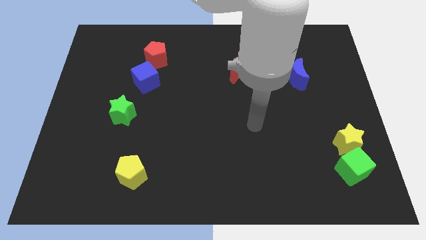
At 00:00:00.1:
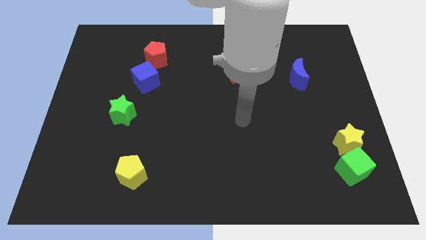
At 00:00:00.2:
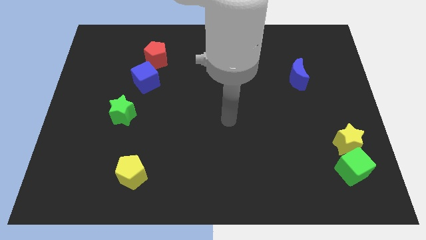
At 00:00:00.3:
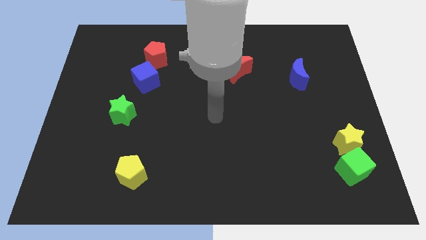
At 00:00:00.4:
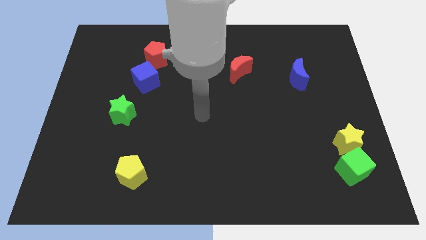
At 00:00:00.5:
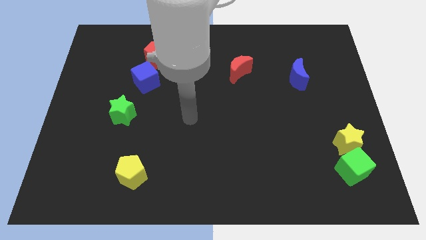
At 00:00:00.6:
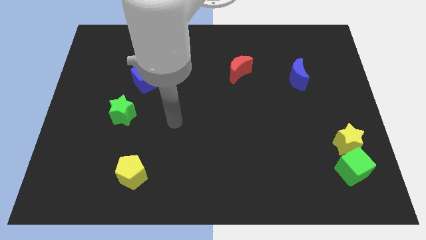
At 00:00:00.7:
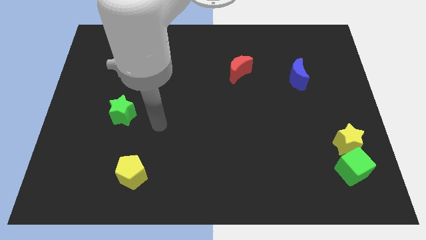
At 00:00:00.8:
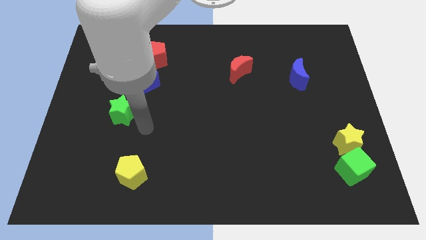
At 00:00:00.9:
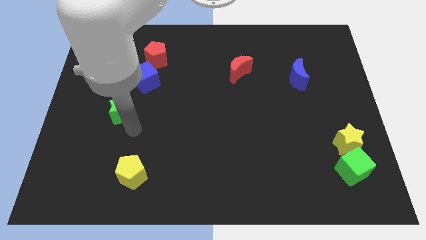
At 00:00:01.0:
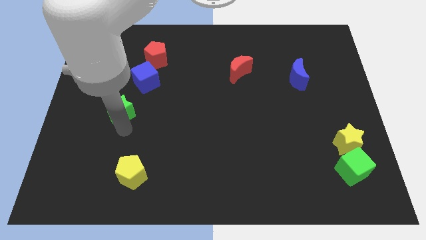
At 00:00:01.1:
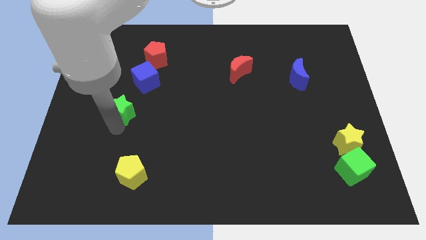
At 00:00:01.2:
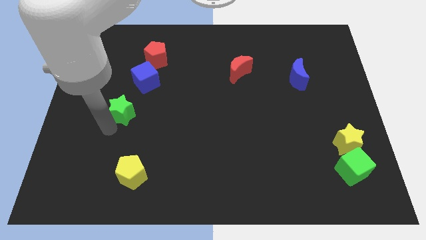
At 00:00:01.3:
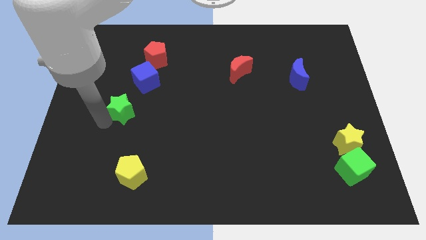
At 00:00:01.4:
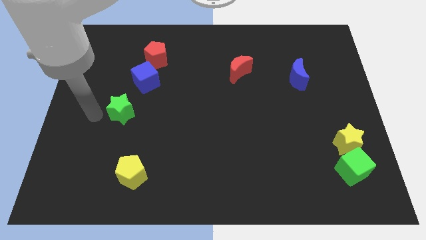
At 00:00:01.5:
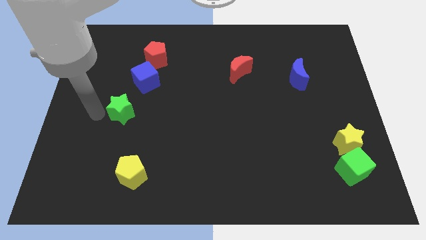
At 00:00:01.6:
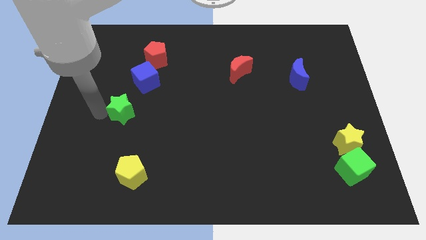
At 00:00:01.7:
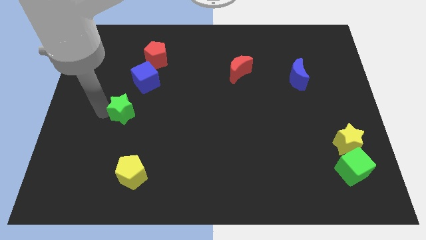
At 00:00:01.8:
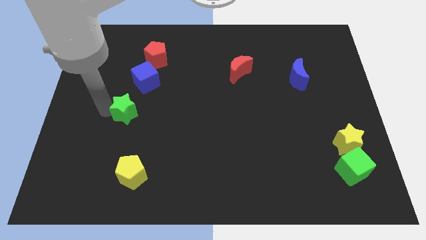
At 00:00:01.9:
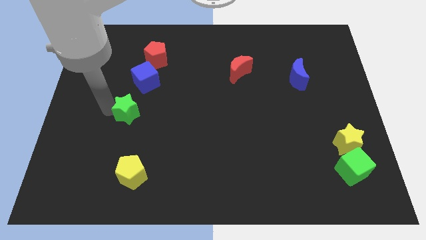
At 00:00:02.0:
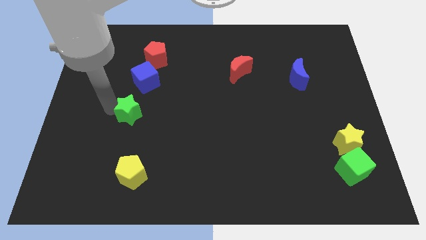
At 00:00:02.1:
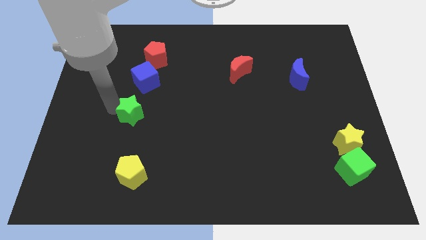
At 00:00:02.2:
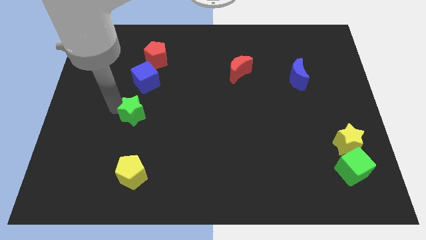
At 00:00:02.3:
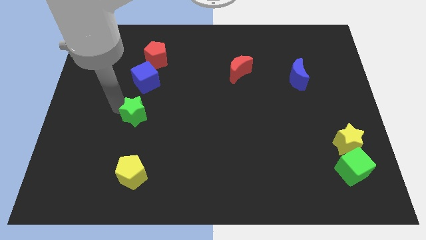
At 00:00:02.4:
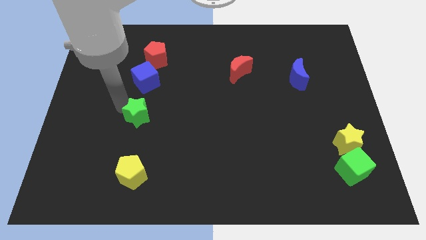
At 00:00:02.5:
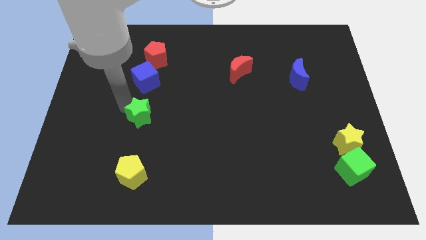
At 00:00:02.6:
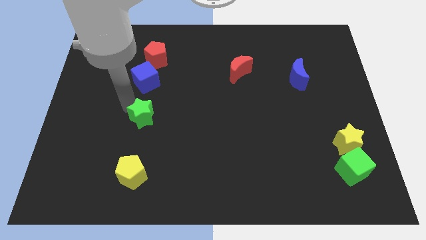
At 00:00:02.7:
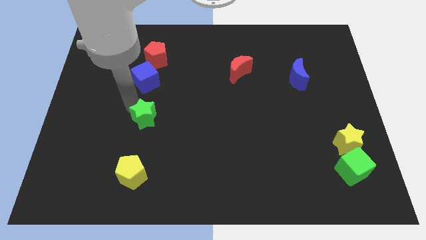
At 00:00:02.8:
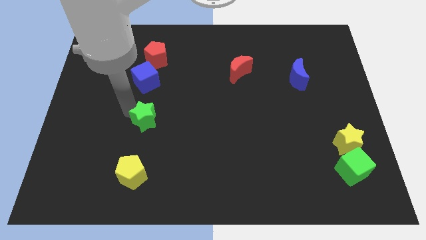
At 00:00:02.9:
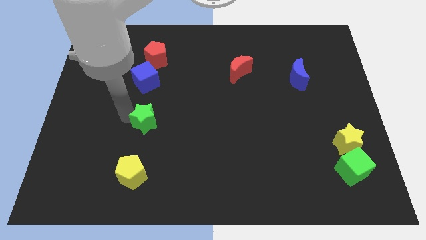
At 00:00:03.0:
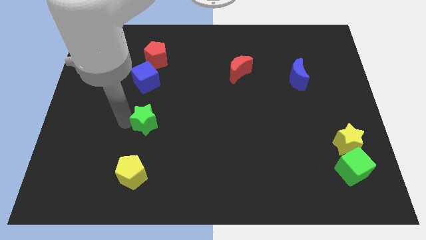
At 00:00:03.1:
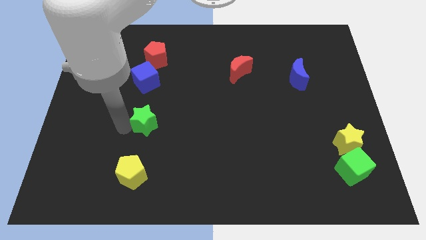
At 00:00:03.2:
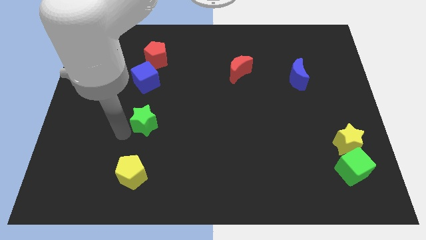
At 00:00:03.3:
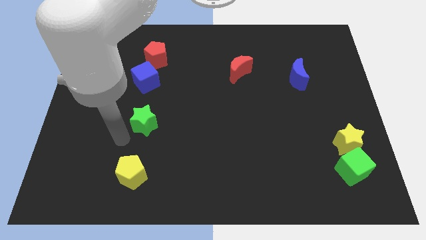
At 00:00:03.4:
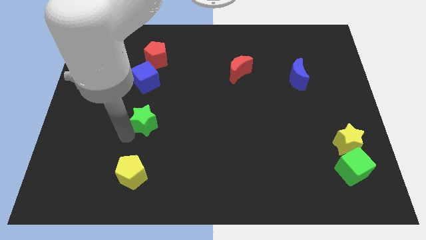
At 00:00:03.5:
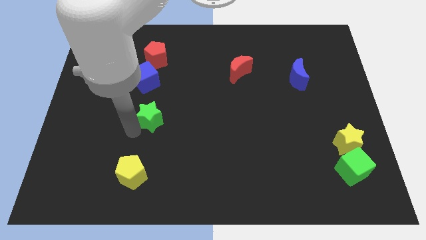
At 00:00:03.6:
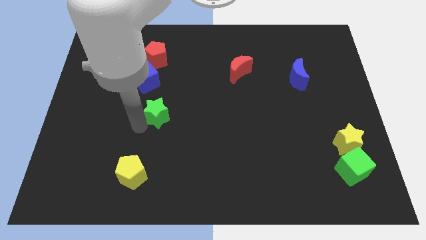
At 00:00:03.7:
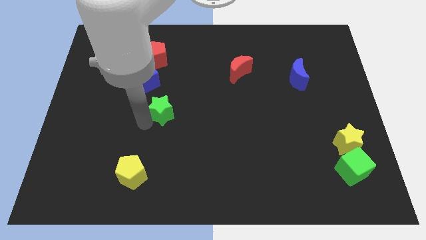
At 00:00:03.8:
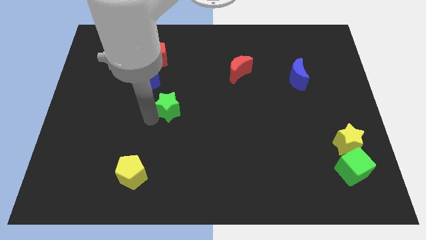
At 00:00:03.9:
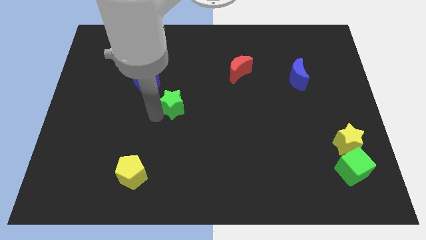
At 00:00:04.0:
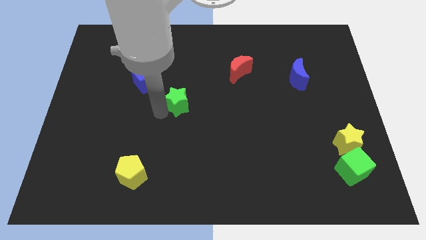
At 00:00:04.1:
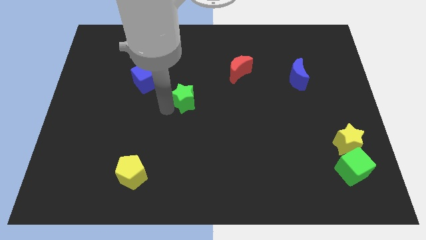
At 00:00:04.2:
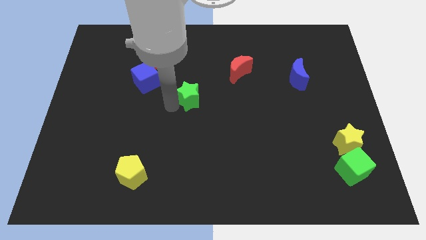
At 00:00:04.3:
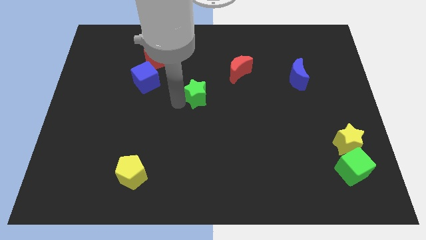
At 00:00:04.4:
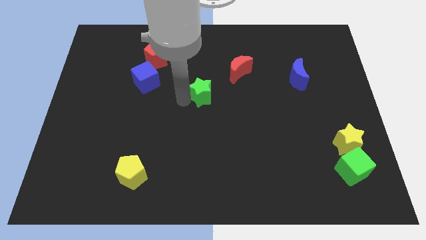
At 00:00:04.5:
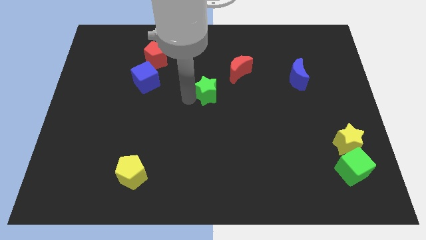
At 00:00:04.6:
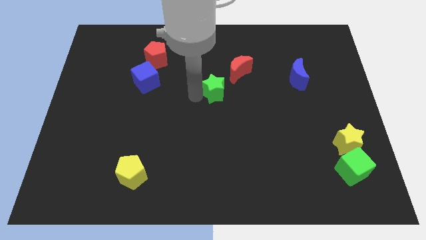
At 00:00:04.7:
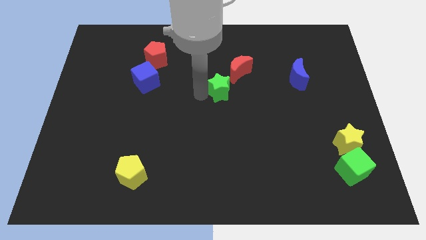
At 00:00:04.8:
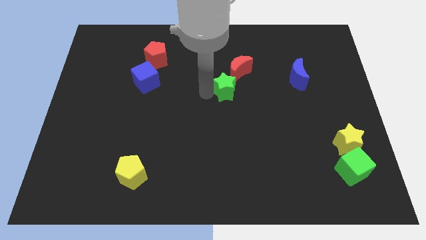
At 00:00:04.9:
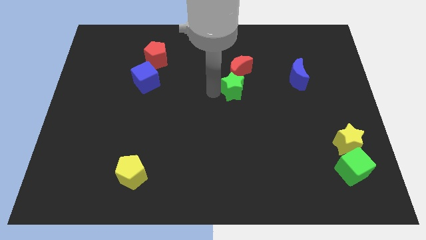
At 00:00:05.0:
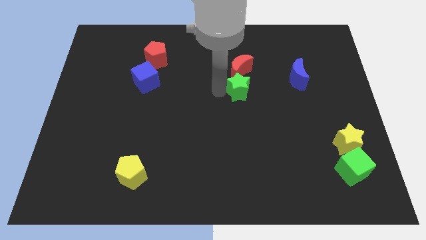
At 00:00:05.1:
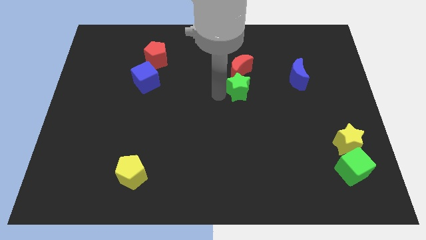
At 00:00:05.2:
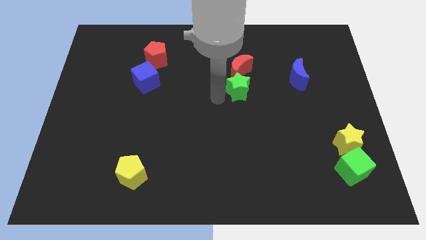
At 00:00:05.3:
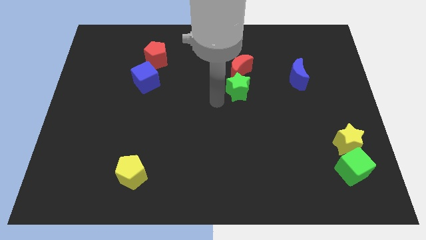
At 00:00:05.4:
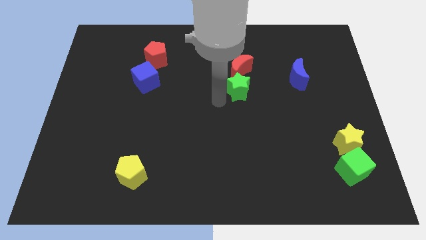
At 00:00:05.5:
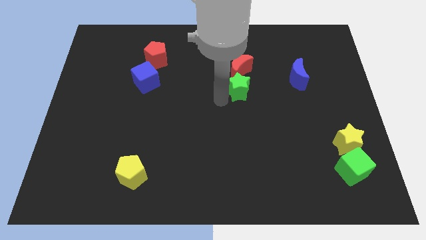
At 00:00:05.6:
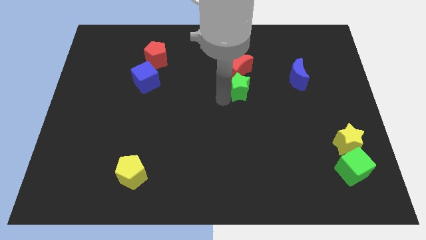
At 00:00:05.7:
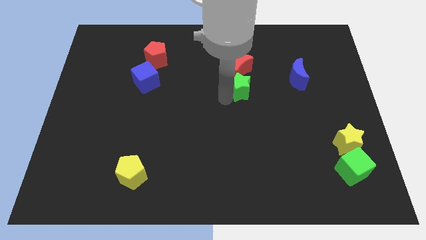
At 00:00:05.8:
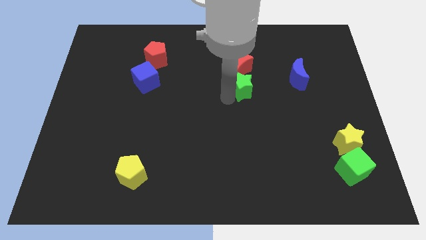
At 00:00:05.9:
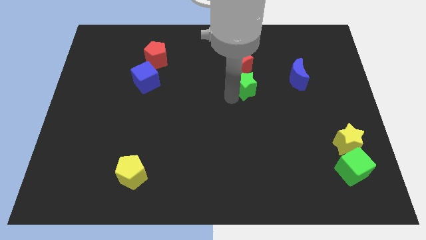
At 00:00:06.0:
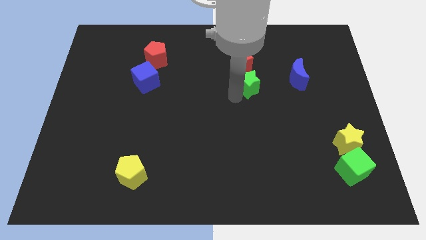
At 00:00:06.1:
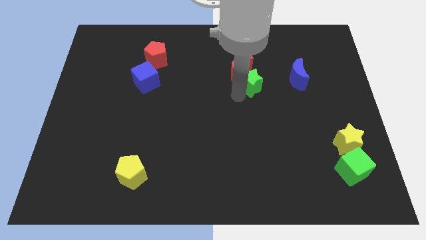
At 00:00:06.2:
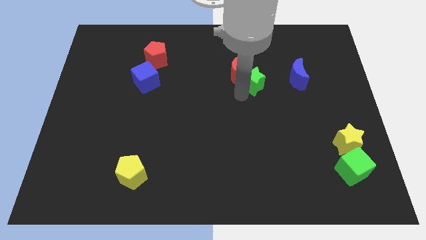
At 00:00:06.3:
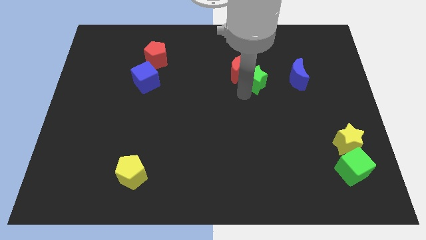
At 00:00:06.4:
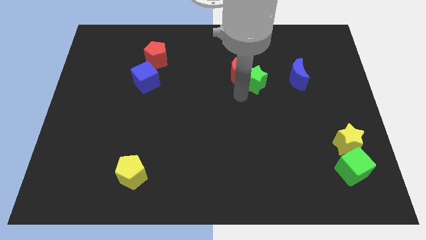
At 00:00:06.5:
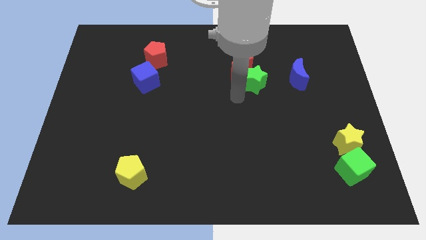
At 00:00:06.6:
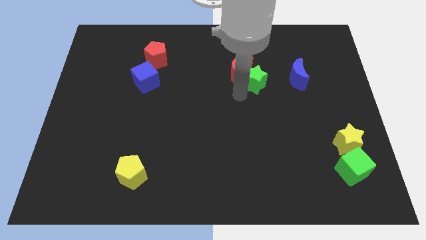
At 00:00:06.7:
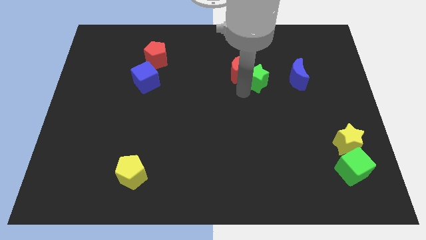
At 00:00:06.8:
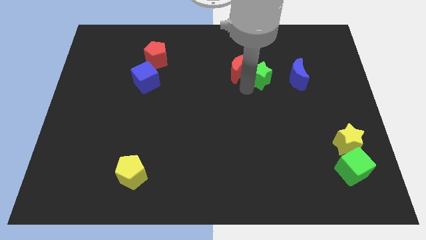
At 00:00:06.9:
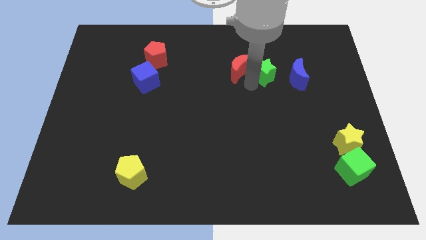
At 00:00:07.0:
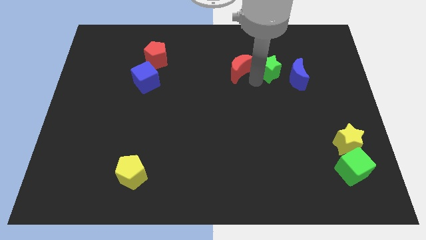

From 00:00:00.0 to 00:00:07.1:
push the green star to the top left side of the blue moon

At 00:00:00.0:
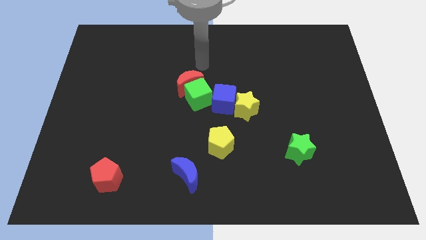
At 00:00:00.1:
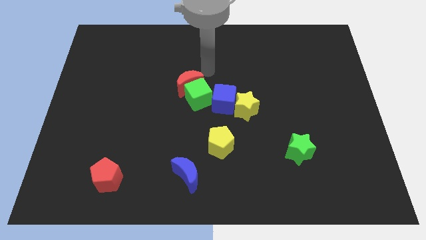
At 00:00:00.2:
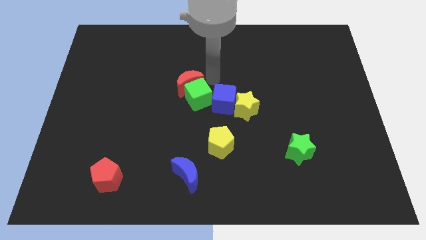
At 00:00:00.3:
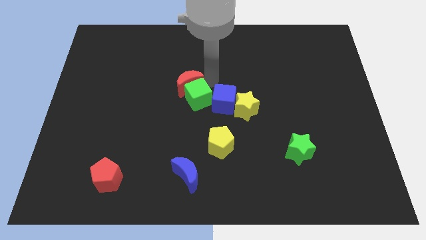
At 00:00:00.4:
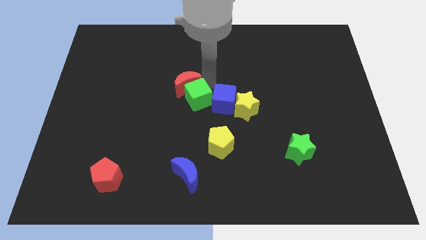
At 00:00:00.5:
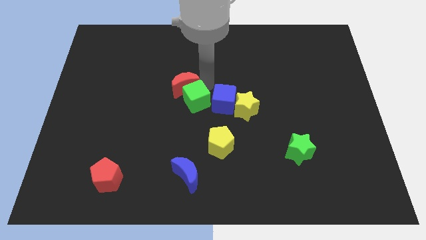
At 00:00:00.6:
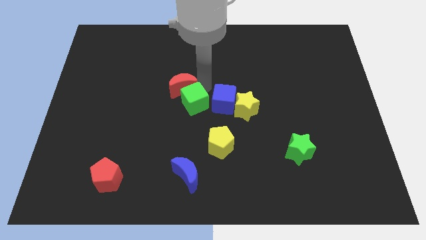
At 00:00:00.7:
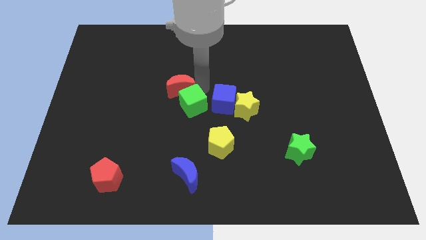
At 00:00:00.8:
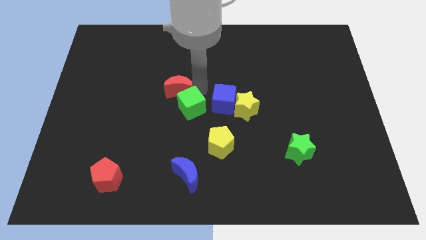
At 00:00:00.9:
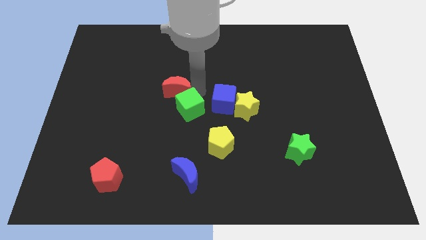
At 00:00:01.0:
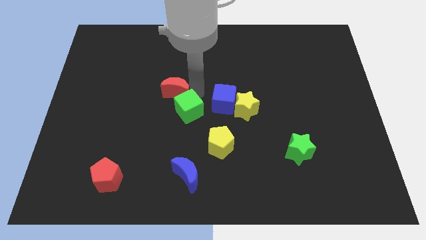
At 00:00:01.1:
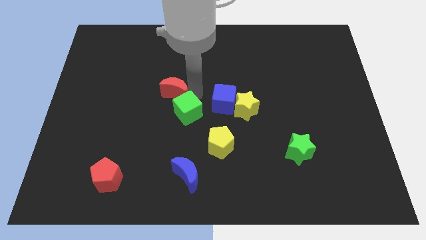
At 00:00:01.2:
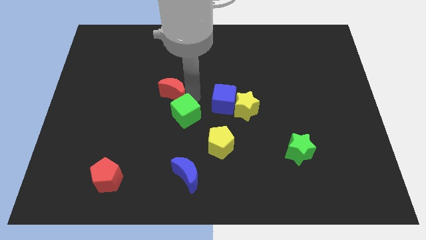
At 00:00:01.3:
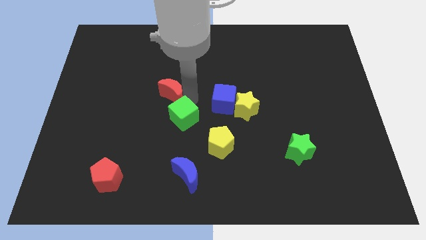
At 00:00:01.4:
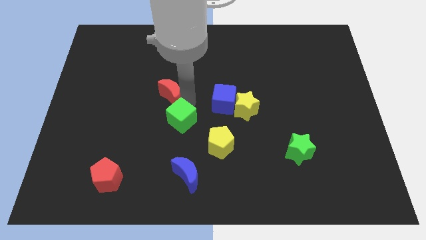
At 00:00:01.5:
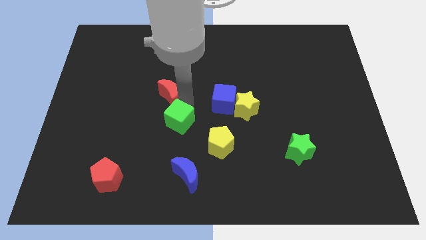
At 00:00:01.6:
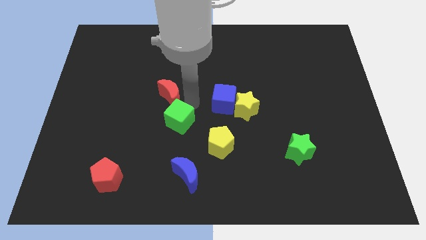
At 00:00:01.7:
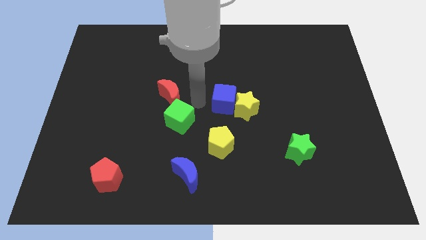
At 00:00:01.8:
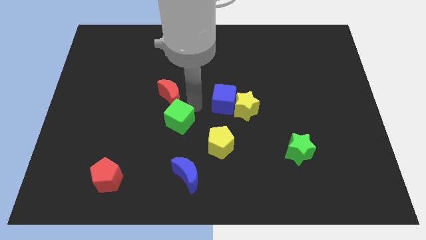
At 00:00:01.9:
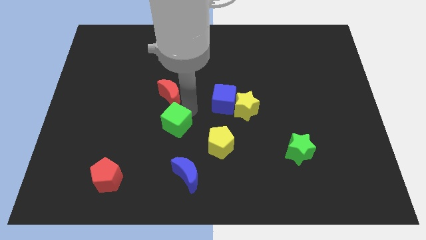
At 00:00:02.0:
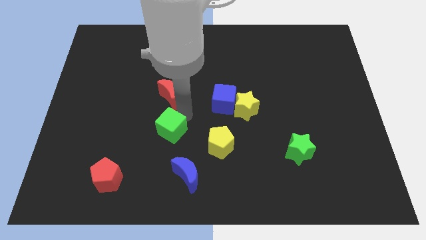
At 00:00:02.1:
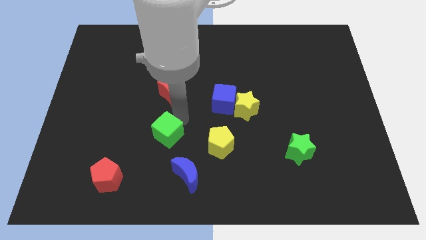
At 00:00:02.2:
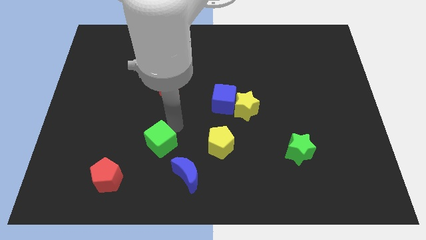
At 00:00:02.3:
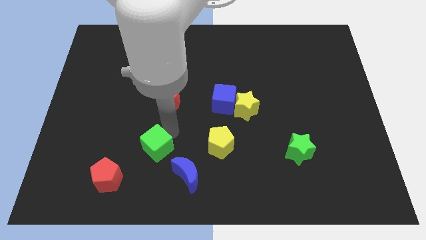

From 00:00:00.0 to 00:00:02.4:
push the green cube diagonally up and to the right of the red pentagon
